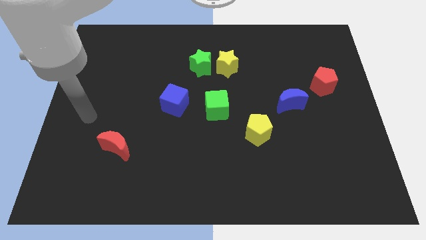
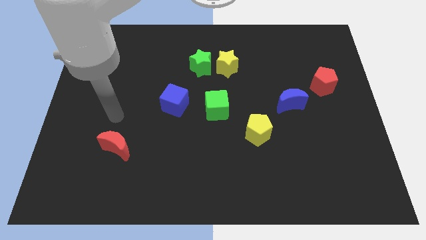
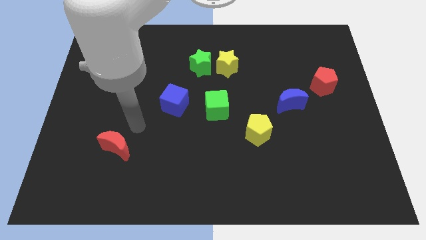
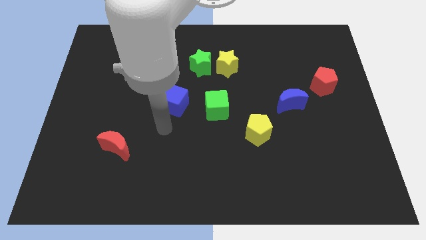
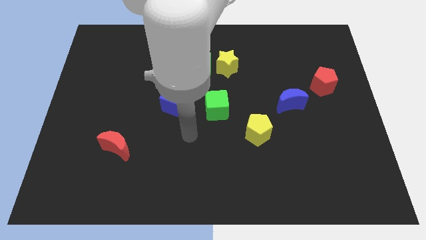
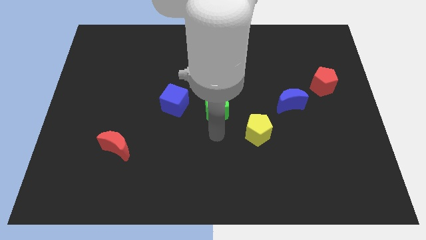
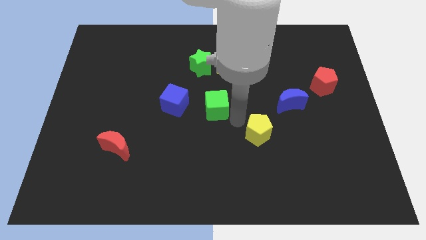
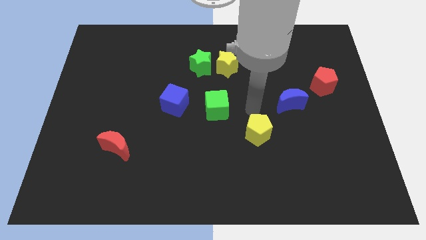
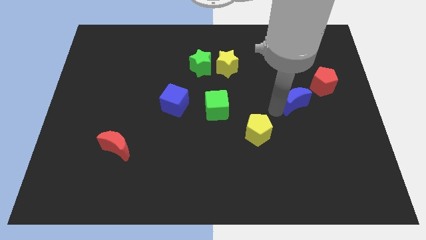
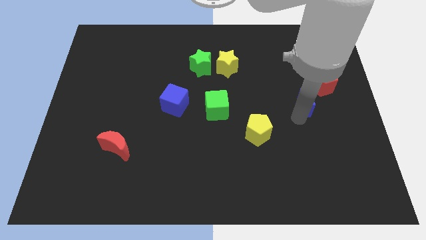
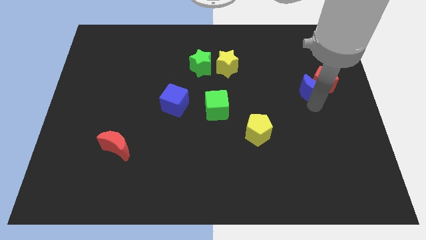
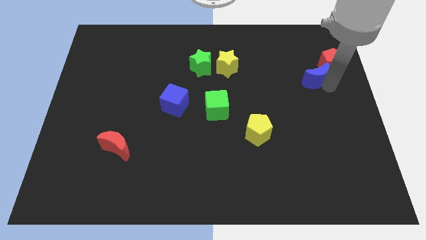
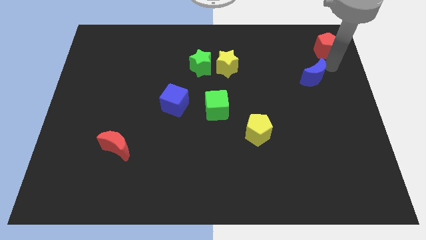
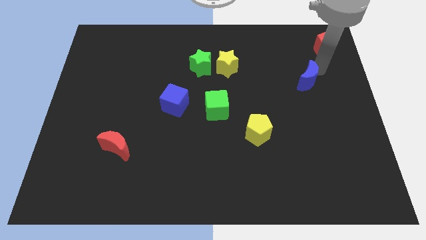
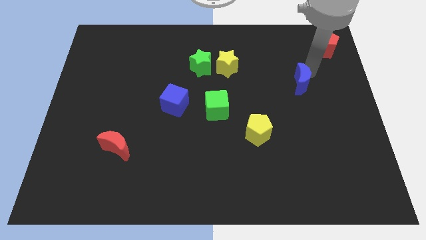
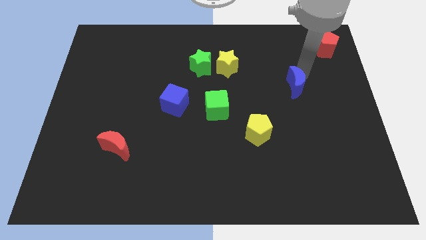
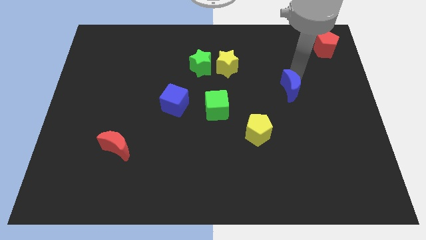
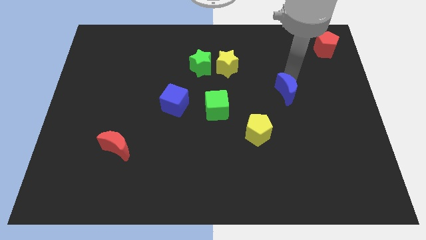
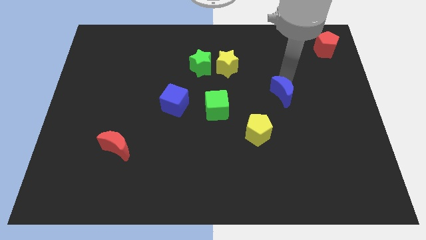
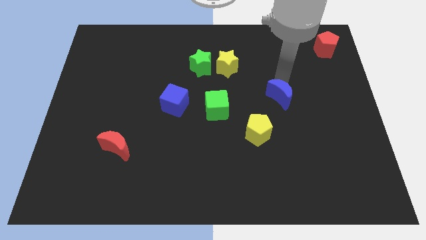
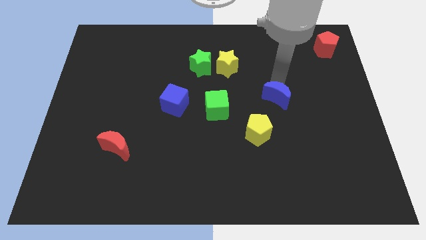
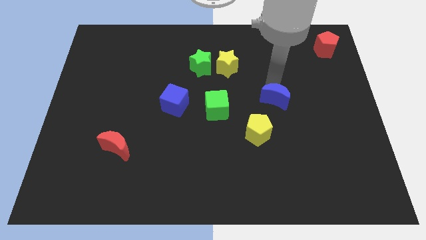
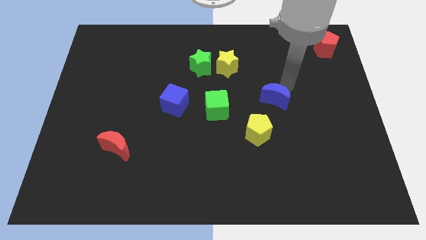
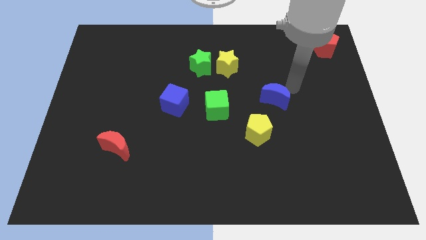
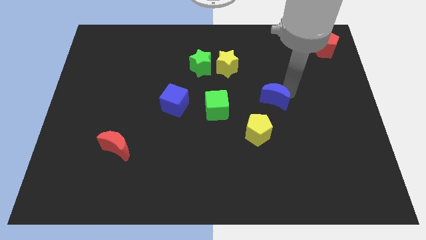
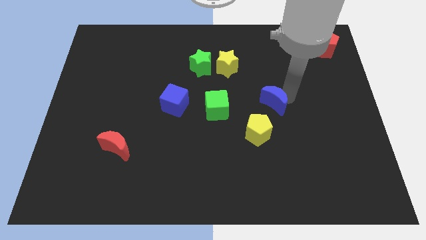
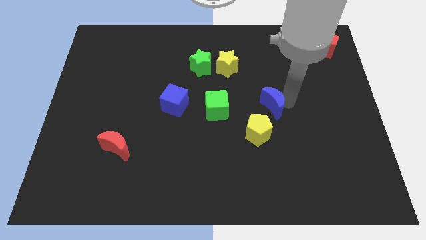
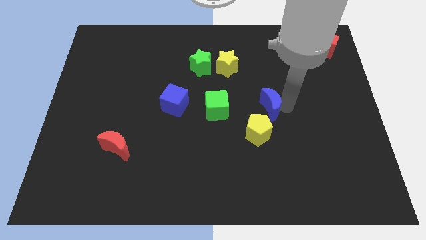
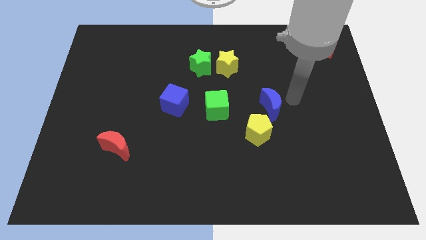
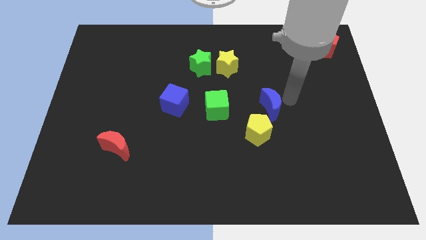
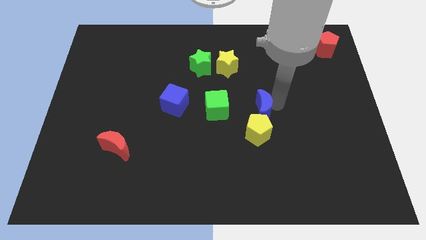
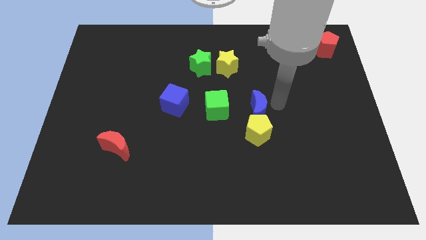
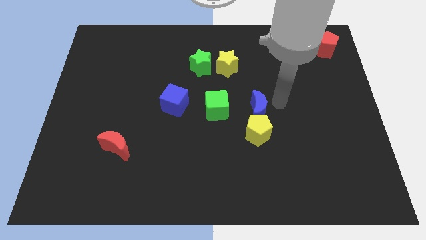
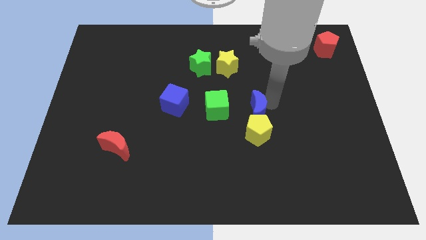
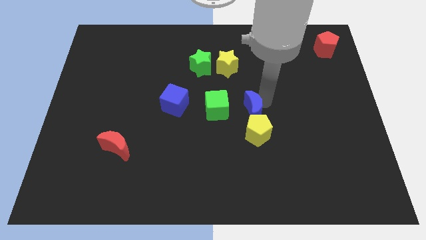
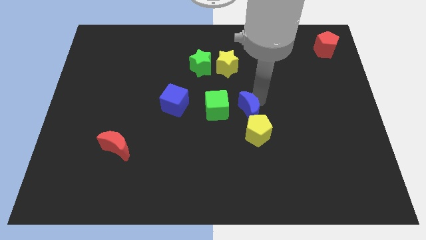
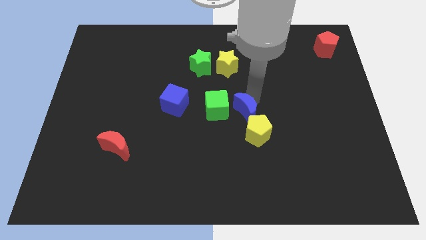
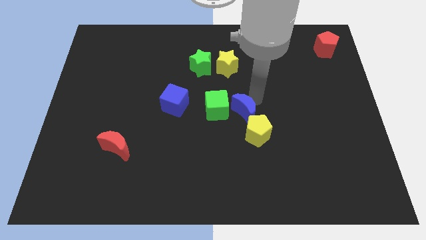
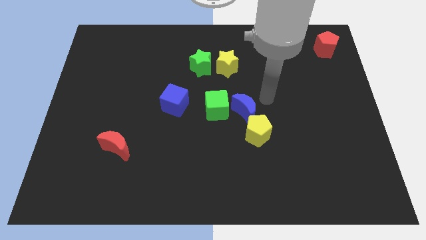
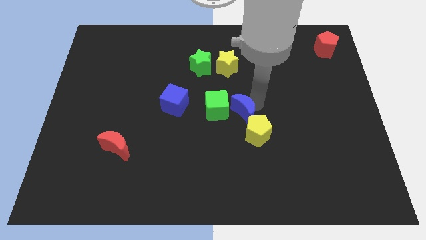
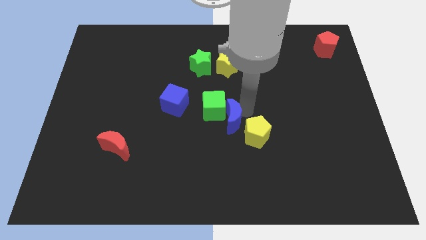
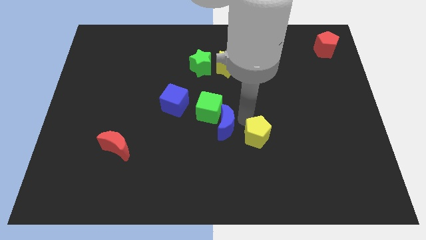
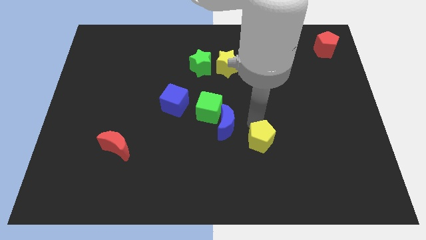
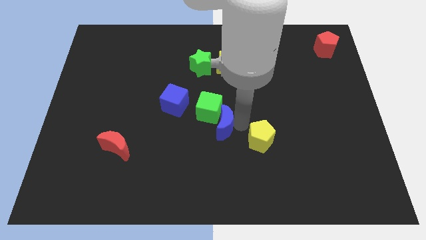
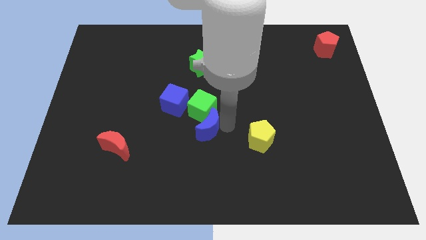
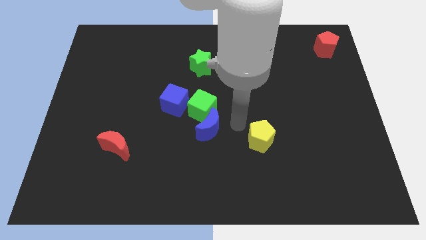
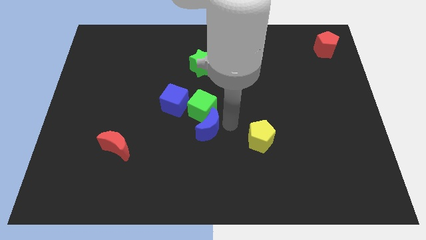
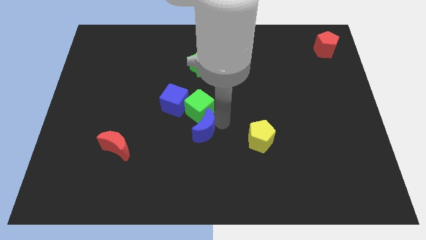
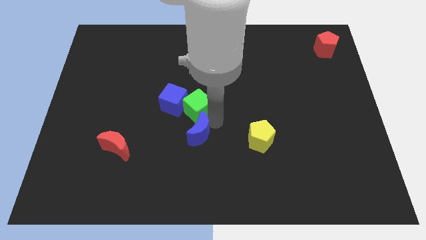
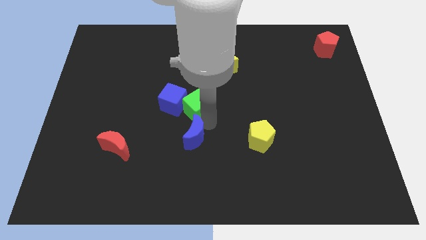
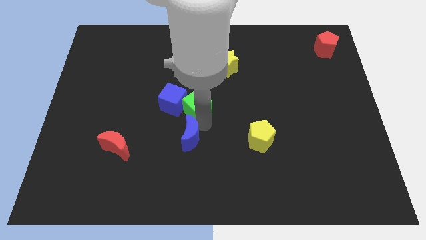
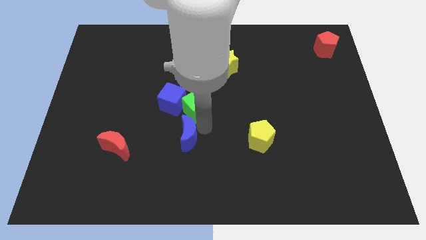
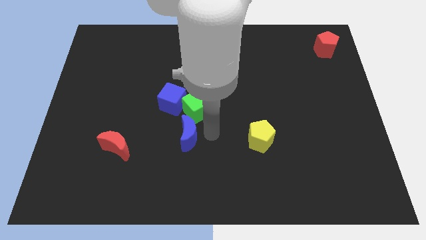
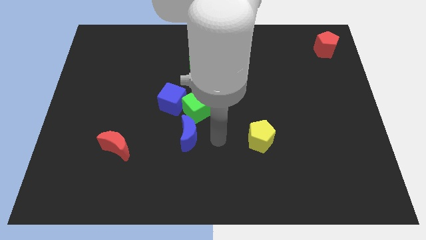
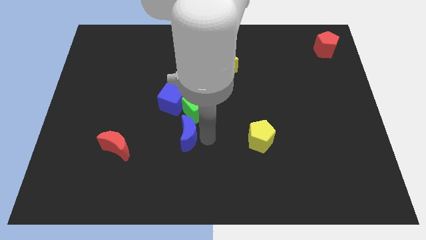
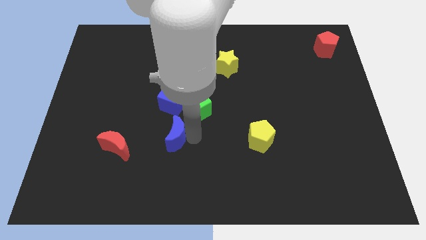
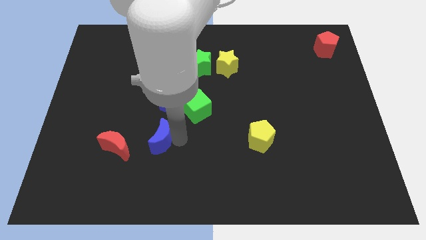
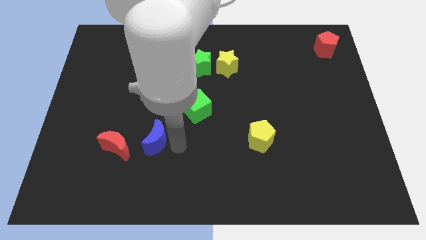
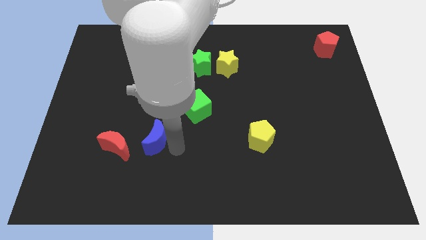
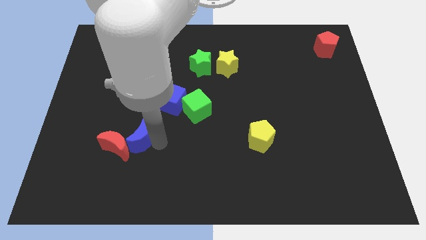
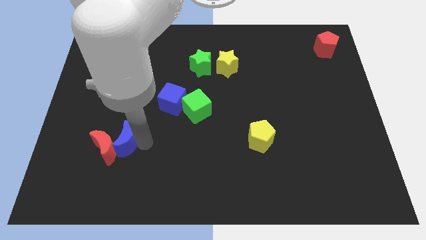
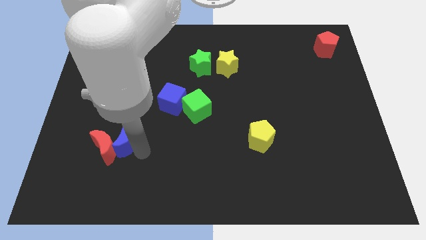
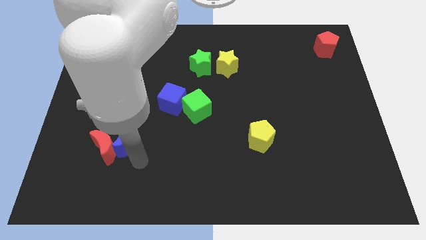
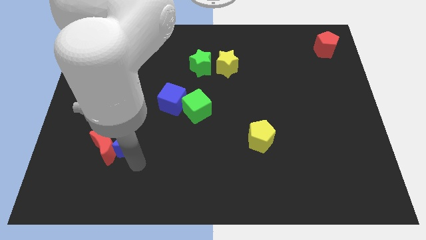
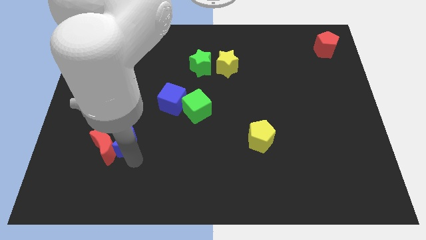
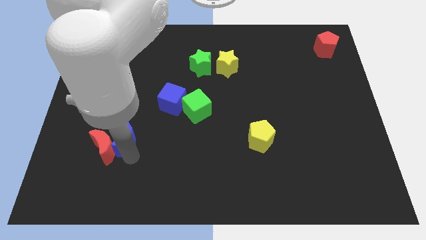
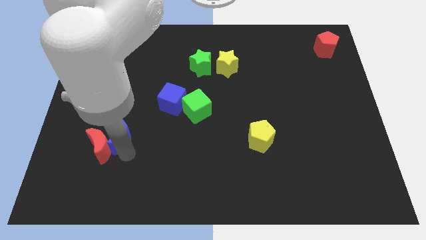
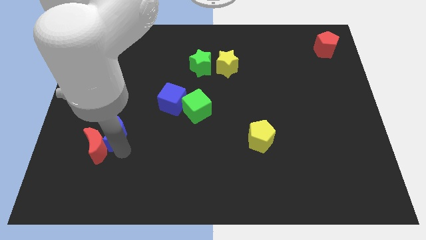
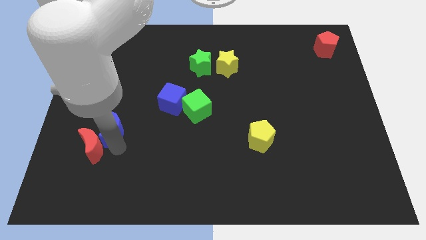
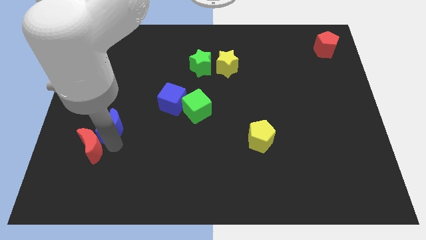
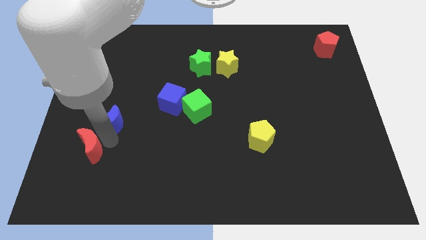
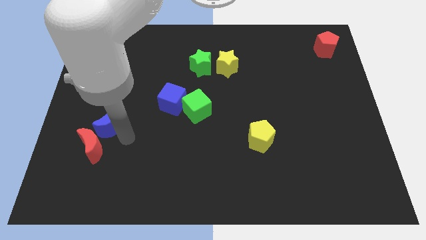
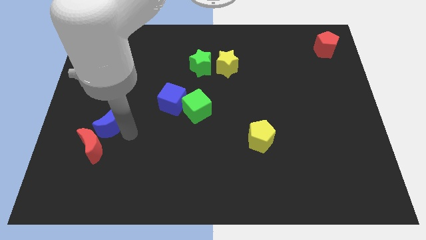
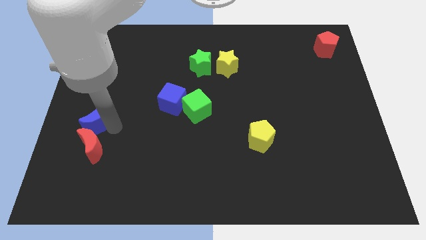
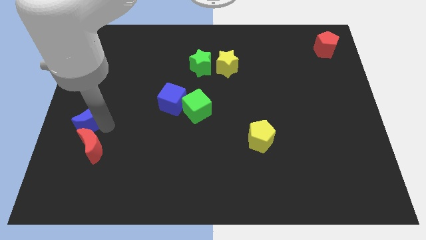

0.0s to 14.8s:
slide the blue moon to the center left
